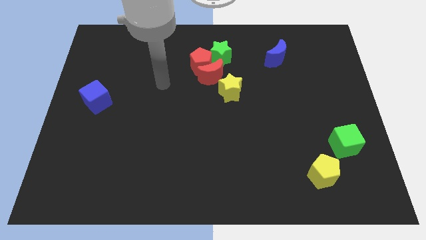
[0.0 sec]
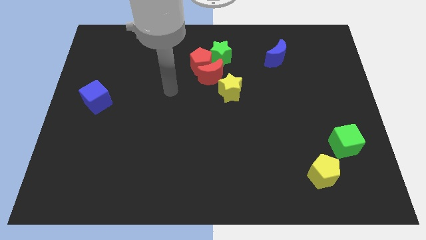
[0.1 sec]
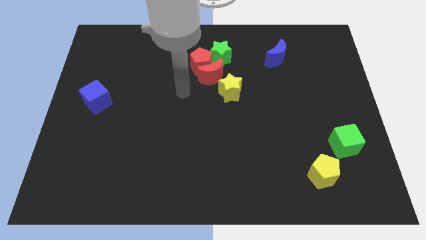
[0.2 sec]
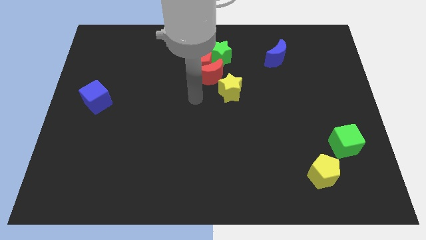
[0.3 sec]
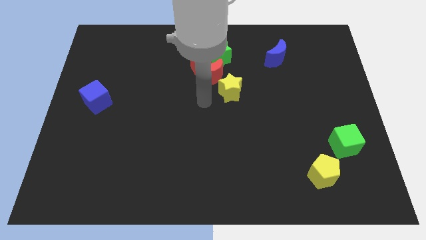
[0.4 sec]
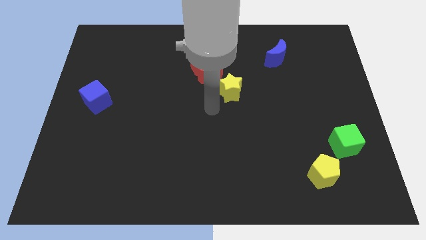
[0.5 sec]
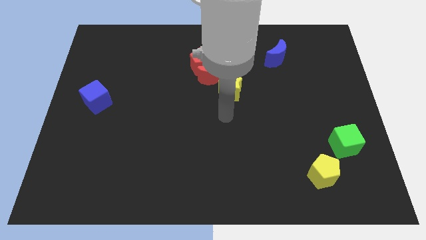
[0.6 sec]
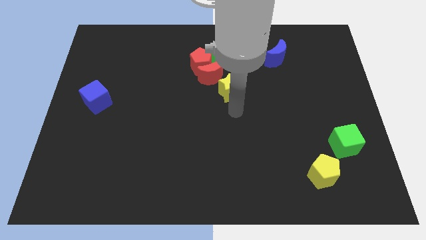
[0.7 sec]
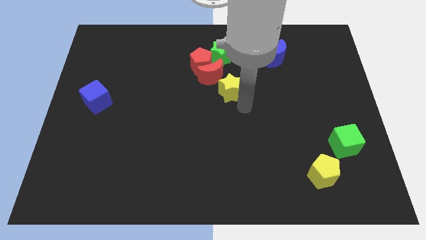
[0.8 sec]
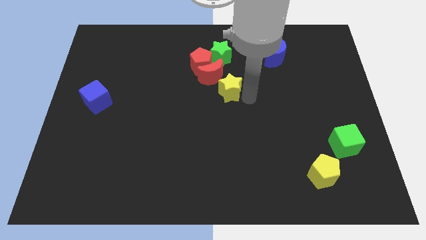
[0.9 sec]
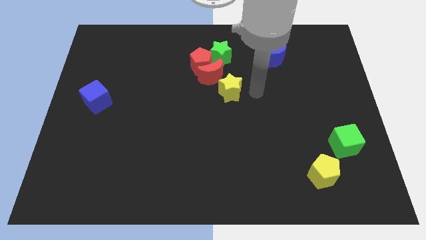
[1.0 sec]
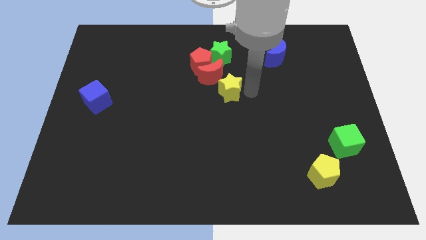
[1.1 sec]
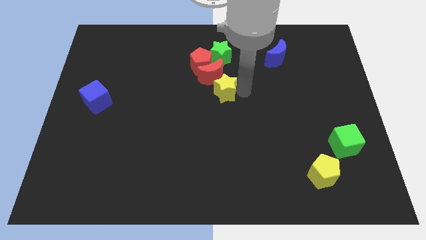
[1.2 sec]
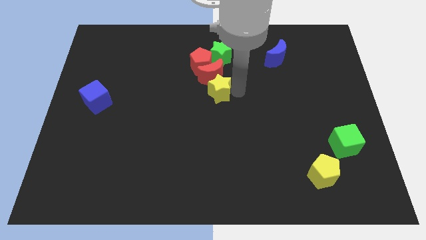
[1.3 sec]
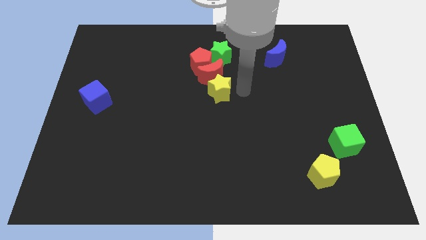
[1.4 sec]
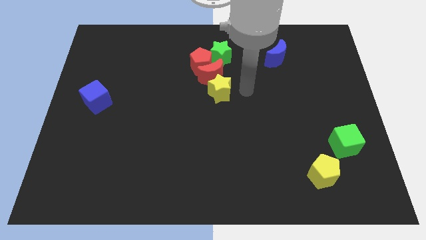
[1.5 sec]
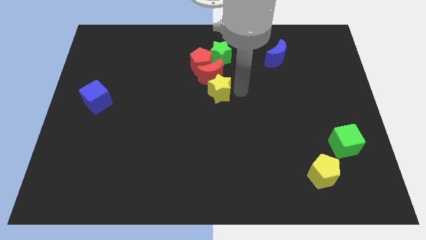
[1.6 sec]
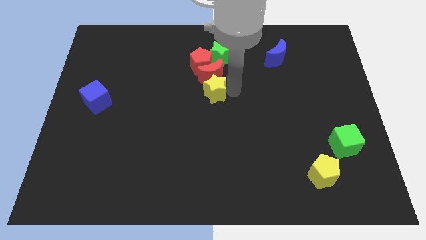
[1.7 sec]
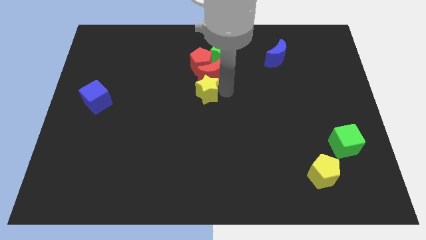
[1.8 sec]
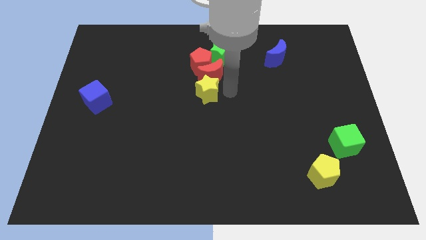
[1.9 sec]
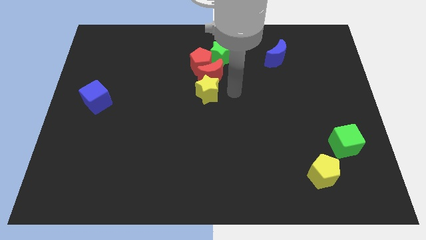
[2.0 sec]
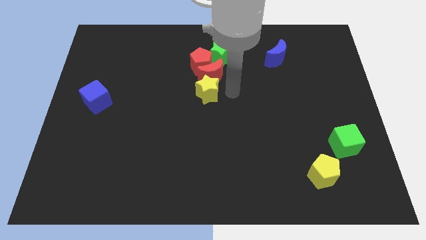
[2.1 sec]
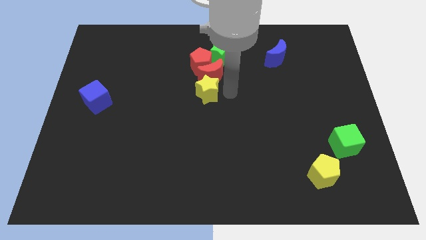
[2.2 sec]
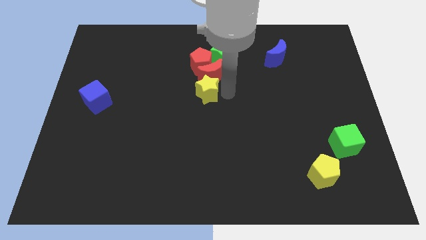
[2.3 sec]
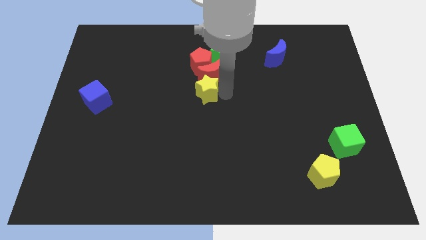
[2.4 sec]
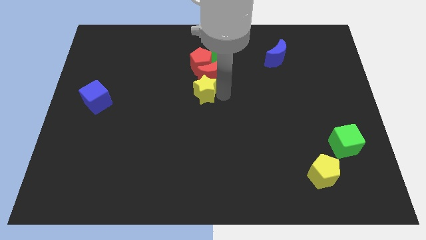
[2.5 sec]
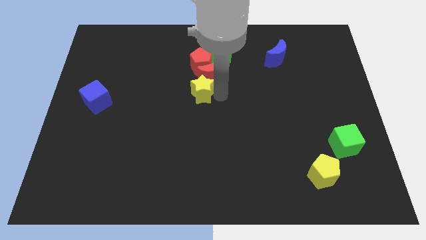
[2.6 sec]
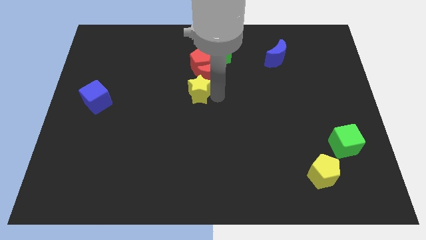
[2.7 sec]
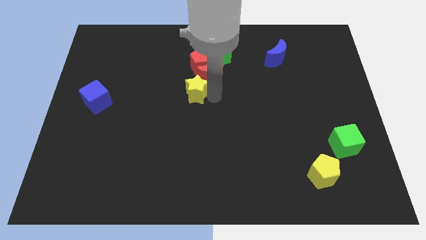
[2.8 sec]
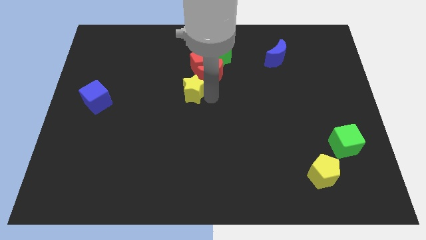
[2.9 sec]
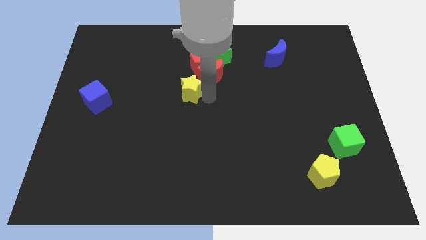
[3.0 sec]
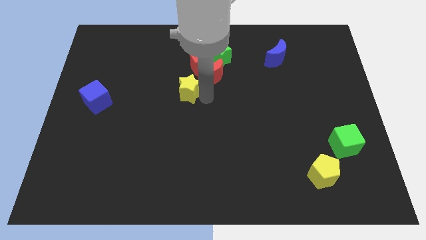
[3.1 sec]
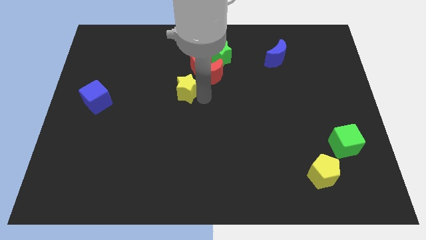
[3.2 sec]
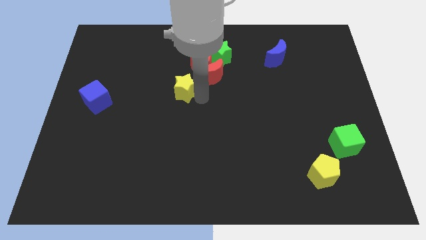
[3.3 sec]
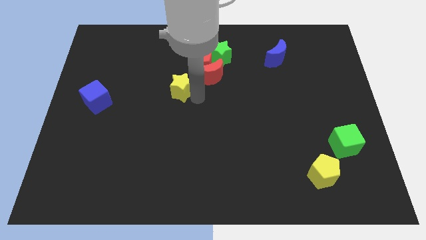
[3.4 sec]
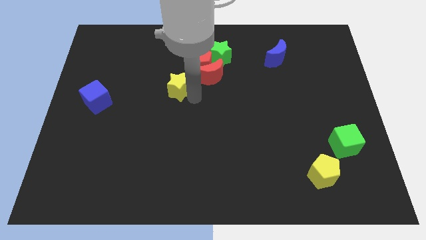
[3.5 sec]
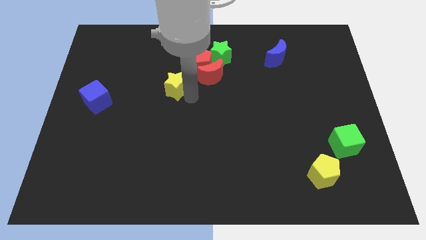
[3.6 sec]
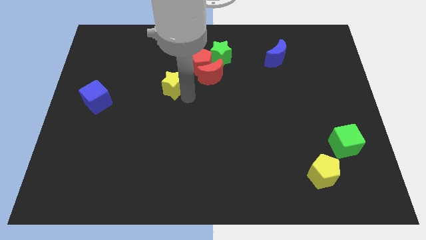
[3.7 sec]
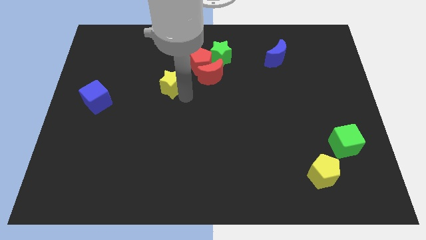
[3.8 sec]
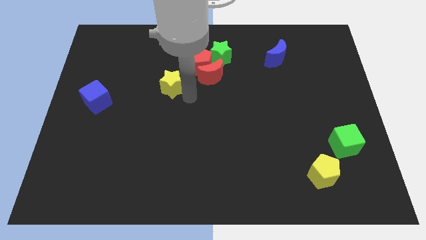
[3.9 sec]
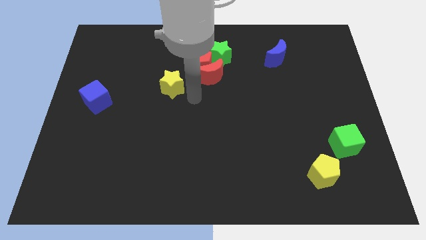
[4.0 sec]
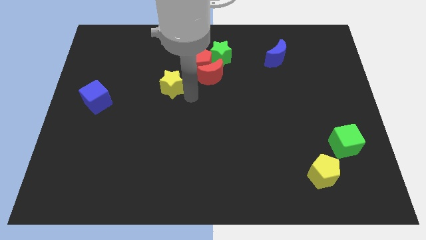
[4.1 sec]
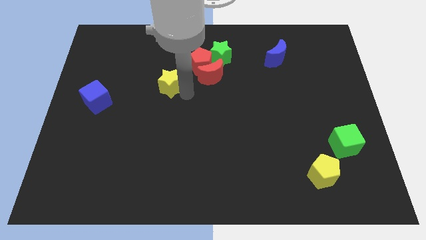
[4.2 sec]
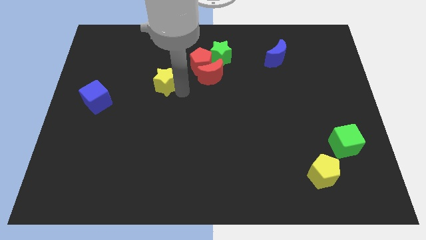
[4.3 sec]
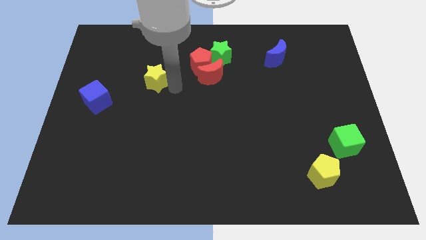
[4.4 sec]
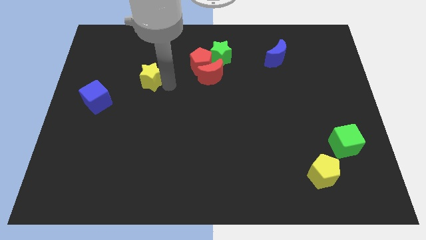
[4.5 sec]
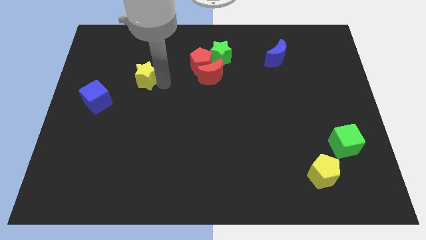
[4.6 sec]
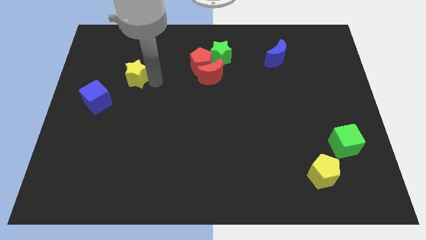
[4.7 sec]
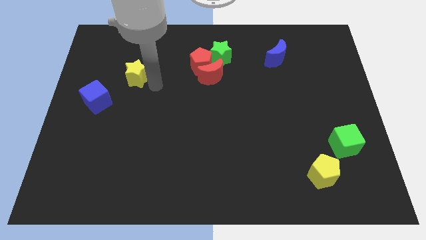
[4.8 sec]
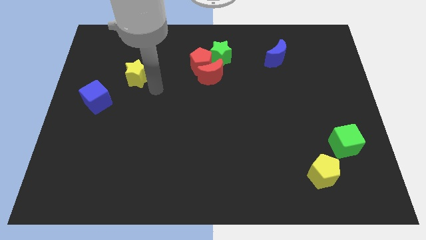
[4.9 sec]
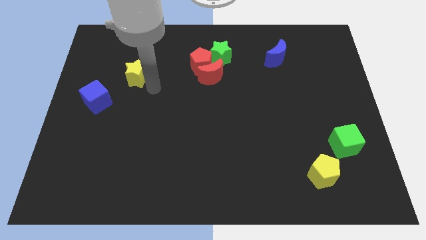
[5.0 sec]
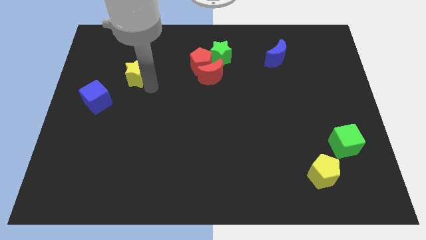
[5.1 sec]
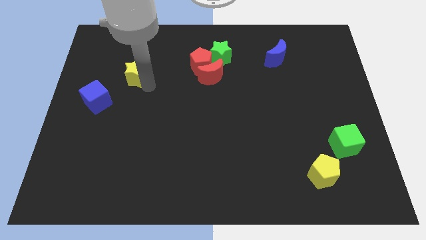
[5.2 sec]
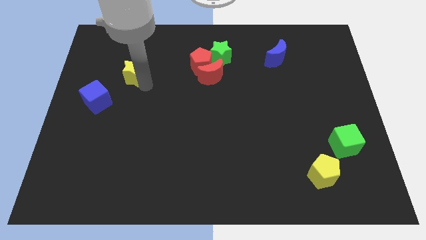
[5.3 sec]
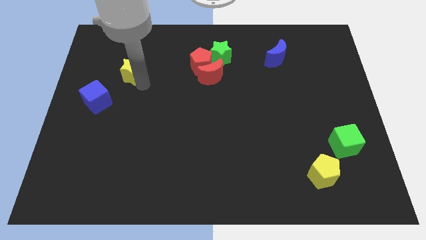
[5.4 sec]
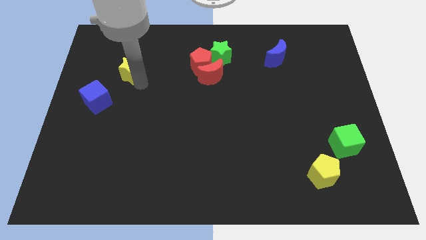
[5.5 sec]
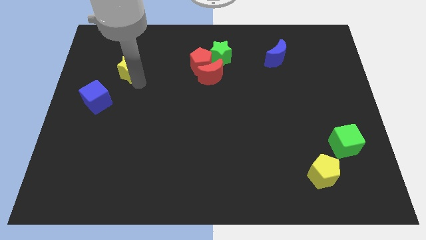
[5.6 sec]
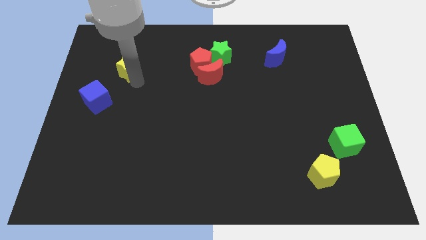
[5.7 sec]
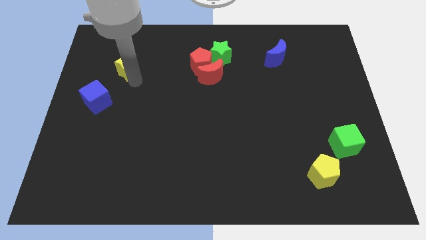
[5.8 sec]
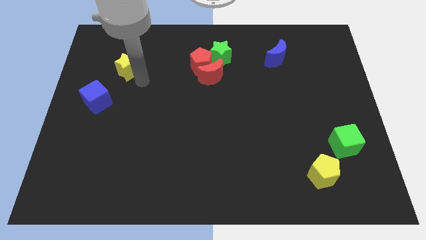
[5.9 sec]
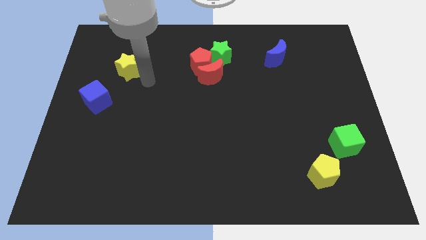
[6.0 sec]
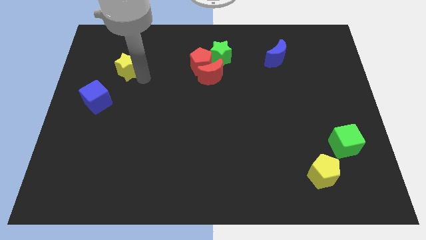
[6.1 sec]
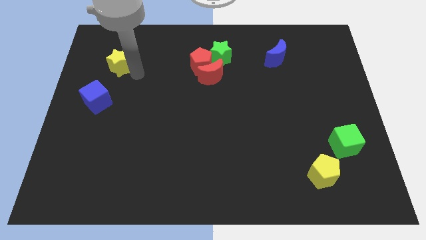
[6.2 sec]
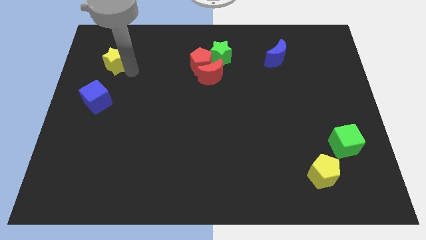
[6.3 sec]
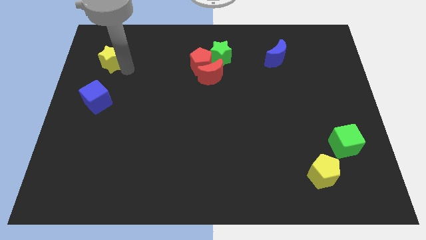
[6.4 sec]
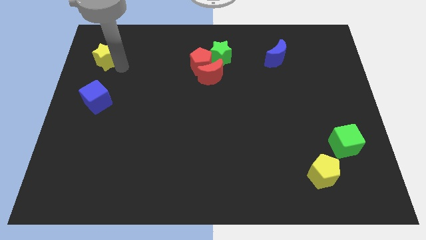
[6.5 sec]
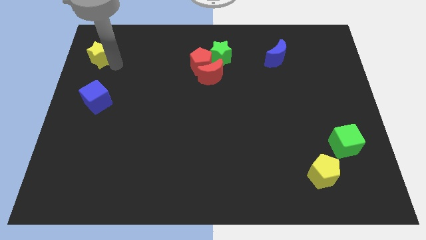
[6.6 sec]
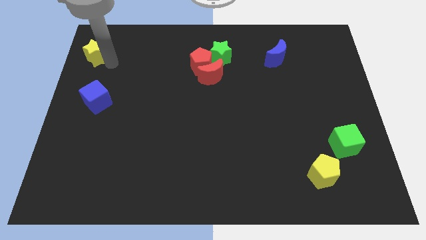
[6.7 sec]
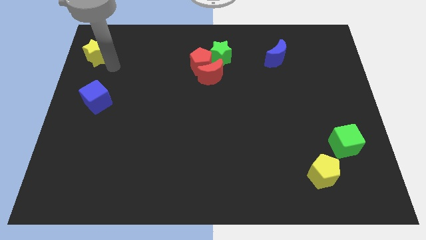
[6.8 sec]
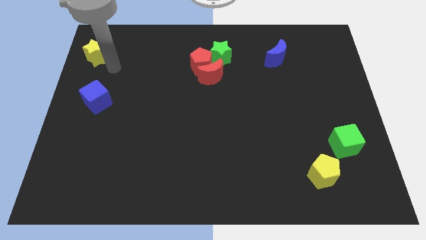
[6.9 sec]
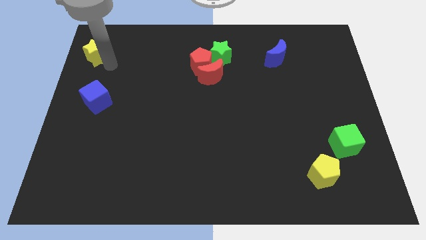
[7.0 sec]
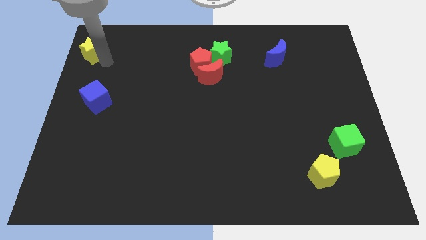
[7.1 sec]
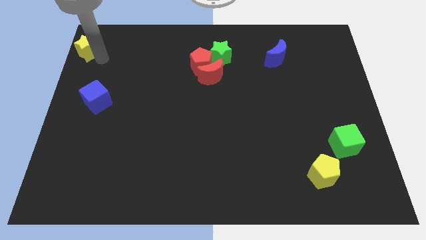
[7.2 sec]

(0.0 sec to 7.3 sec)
push the yellow star to the top left of the board
